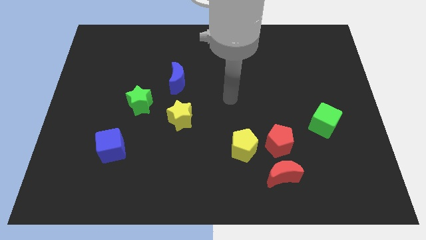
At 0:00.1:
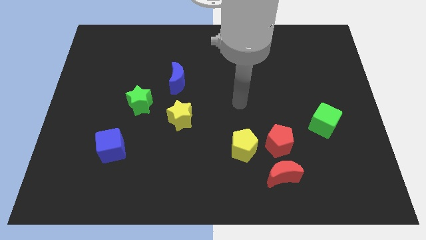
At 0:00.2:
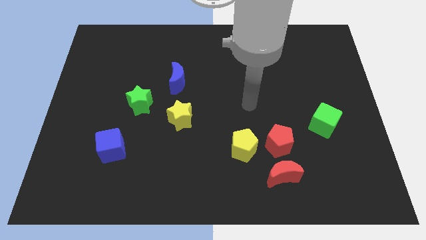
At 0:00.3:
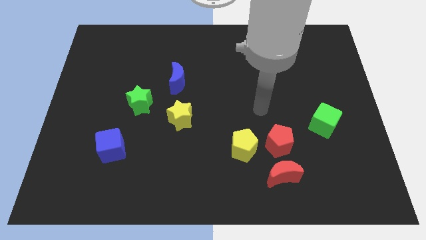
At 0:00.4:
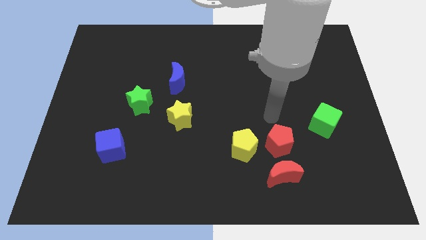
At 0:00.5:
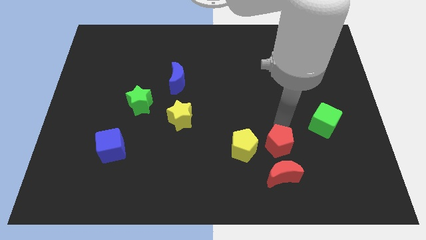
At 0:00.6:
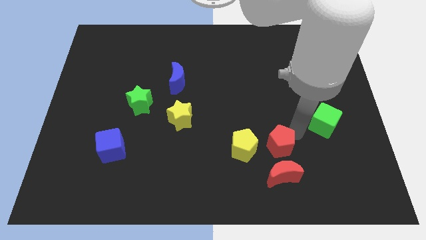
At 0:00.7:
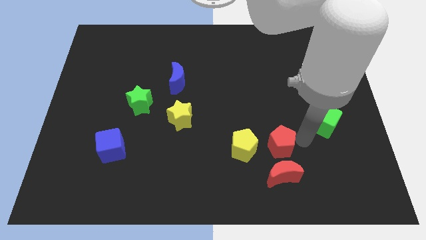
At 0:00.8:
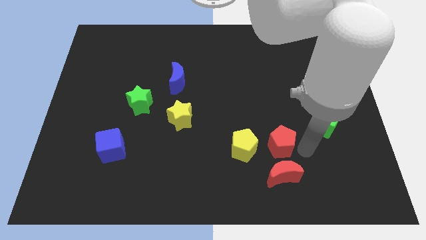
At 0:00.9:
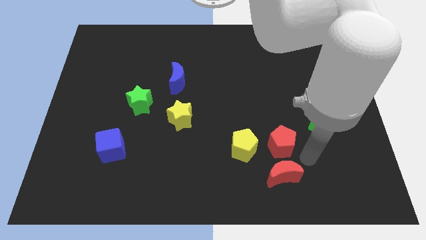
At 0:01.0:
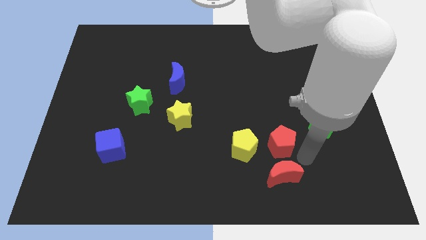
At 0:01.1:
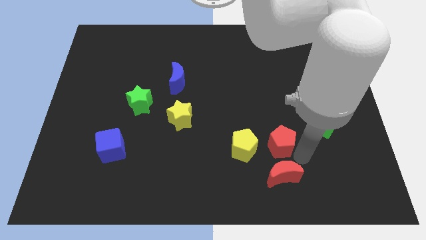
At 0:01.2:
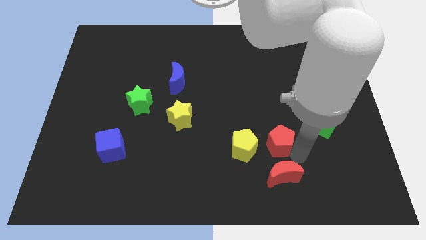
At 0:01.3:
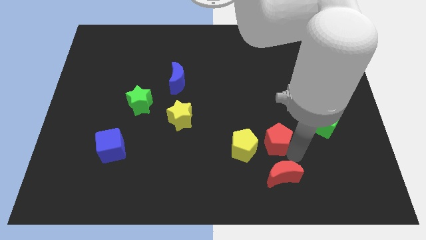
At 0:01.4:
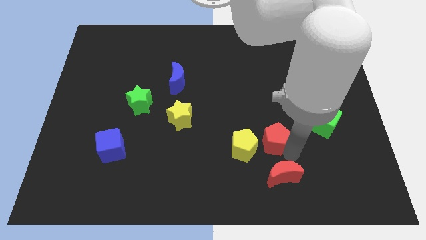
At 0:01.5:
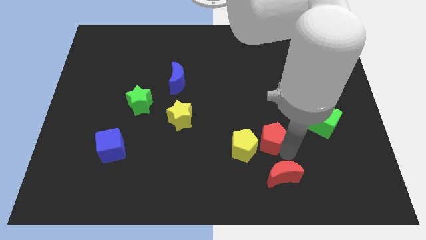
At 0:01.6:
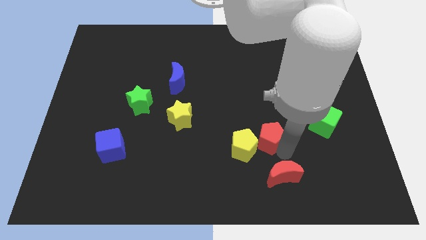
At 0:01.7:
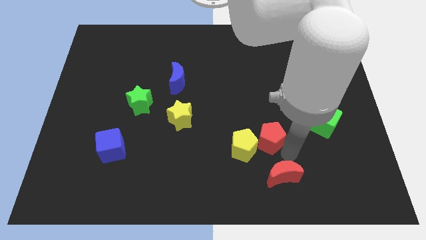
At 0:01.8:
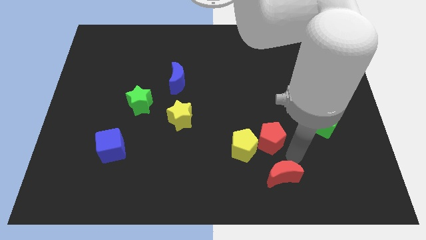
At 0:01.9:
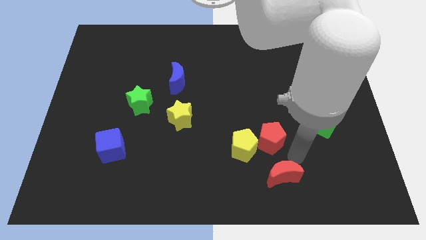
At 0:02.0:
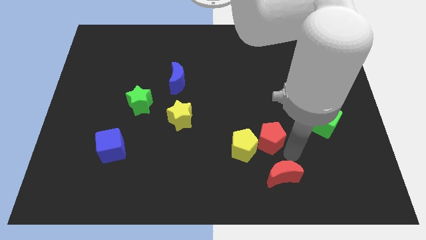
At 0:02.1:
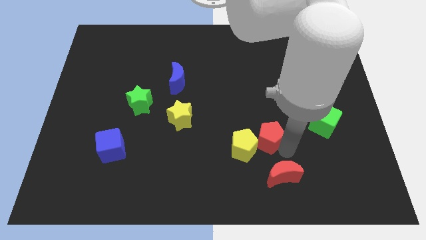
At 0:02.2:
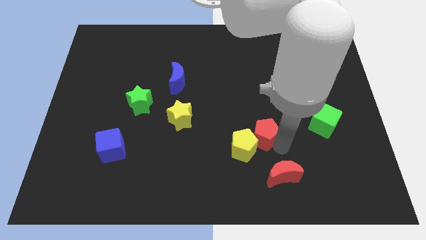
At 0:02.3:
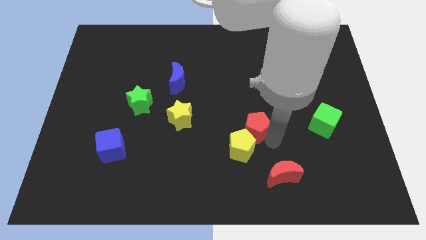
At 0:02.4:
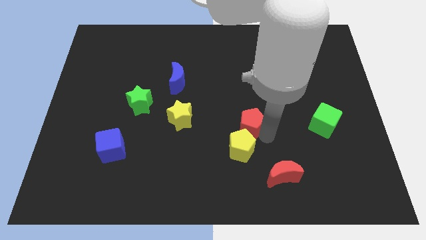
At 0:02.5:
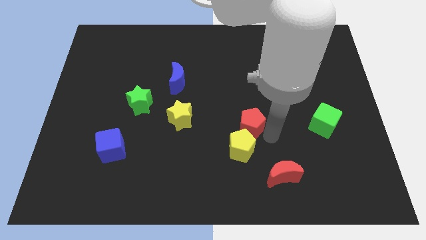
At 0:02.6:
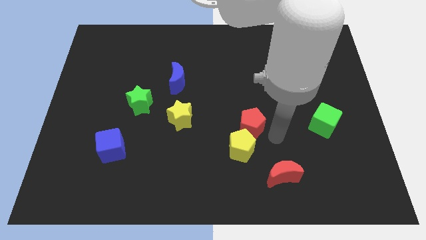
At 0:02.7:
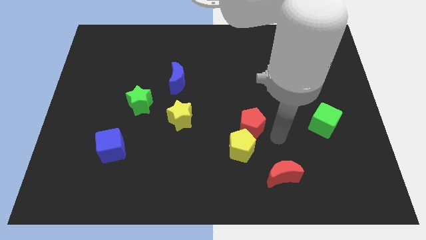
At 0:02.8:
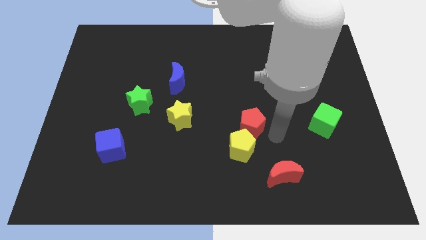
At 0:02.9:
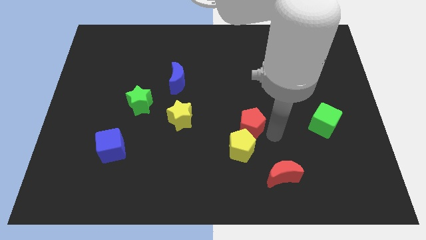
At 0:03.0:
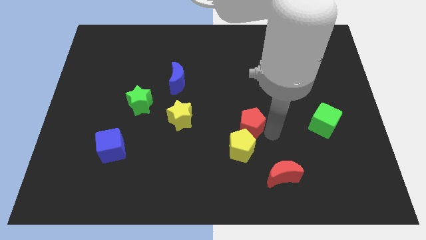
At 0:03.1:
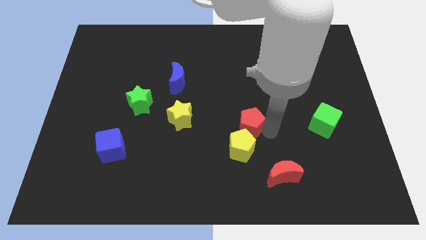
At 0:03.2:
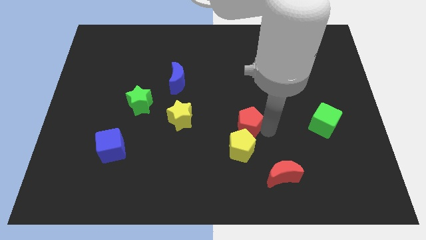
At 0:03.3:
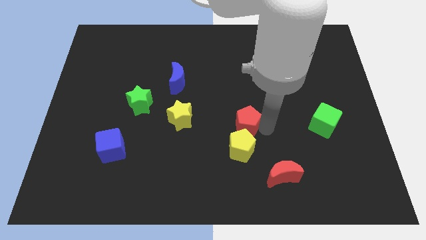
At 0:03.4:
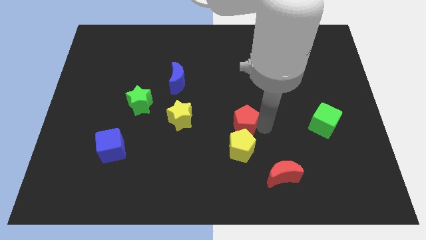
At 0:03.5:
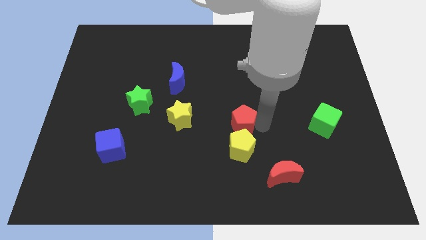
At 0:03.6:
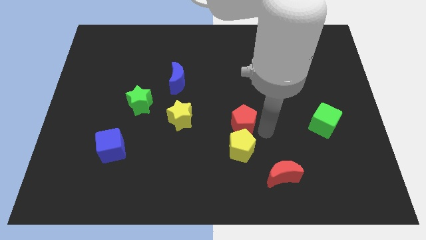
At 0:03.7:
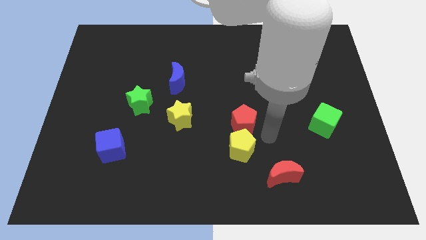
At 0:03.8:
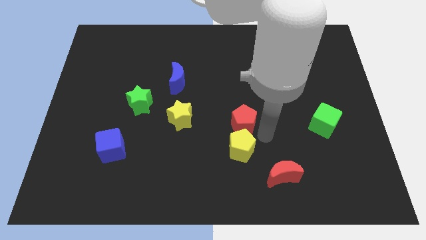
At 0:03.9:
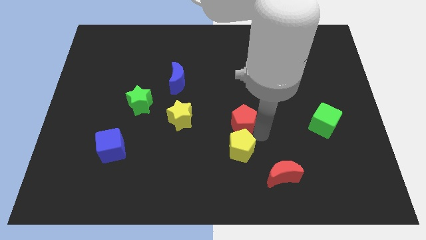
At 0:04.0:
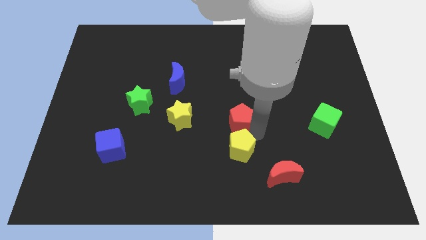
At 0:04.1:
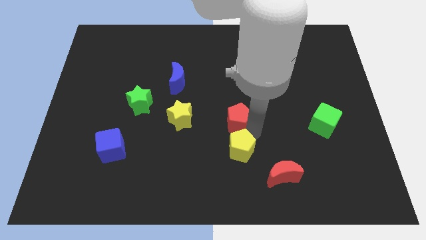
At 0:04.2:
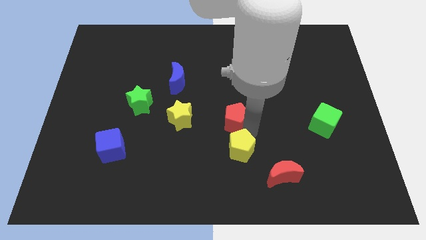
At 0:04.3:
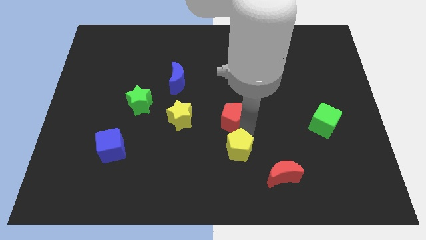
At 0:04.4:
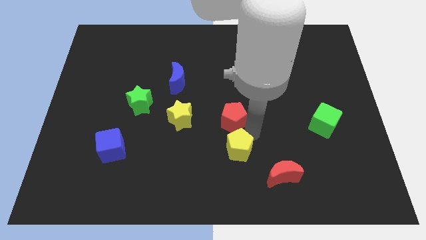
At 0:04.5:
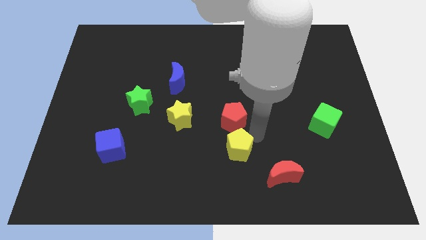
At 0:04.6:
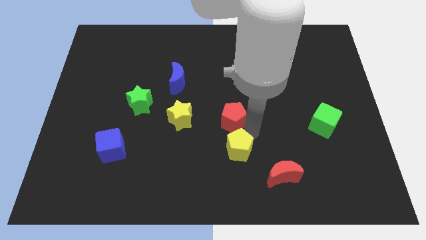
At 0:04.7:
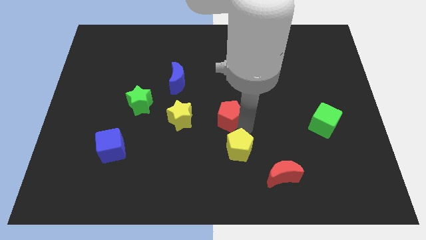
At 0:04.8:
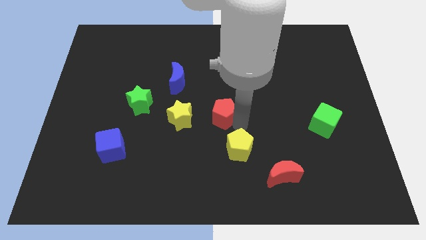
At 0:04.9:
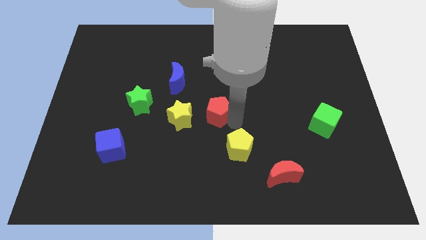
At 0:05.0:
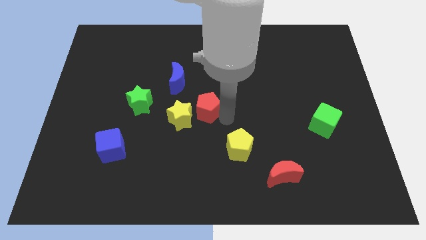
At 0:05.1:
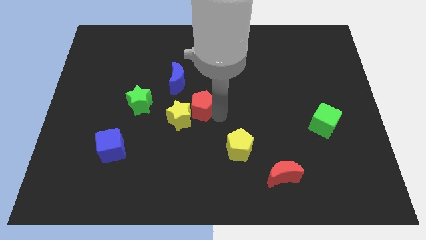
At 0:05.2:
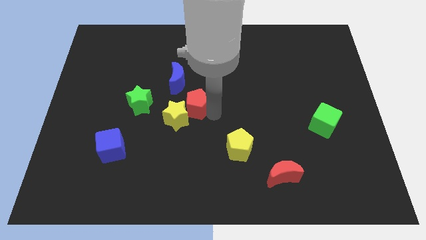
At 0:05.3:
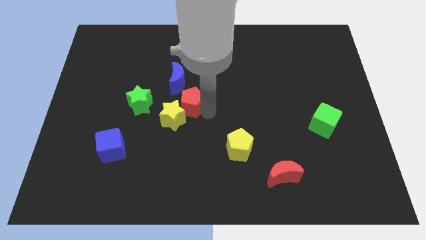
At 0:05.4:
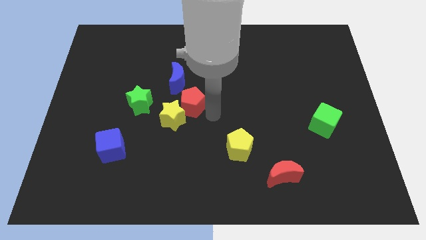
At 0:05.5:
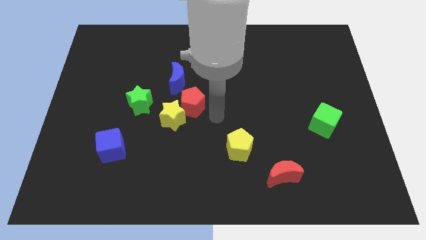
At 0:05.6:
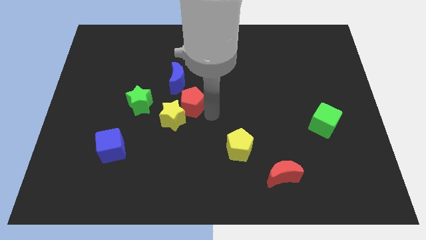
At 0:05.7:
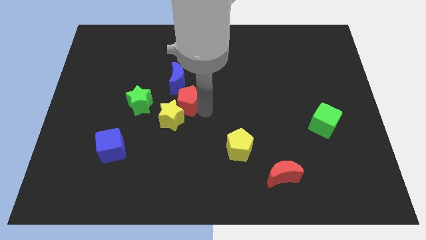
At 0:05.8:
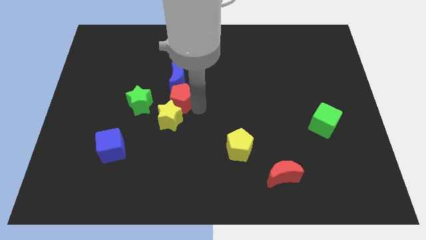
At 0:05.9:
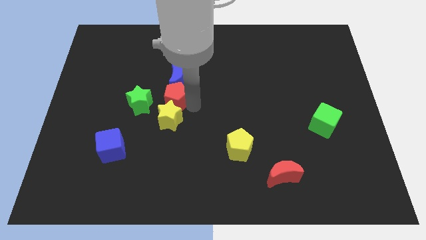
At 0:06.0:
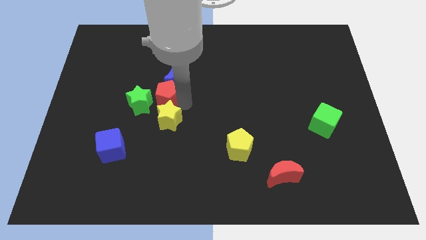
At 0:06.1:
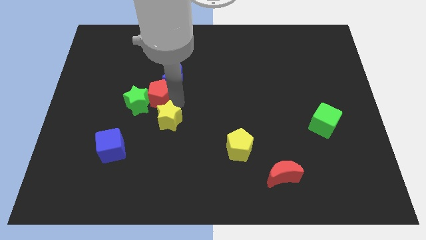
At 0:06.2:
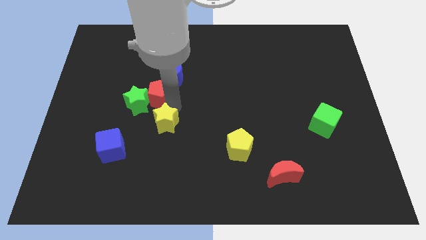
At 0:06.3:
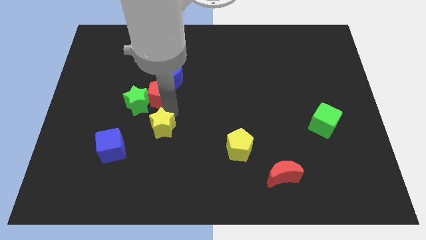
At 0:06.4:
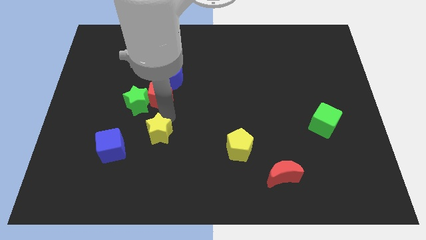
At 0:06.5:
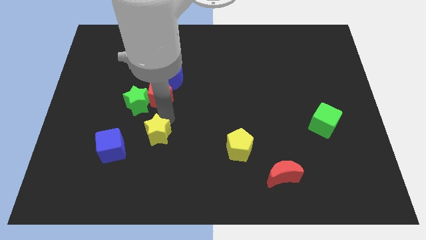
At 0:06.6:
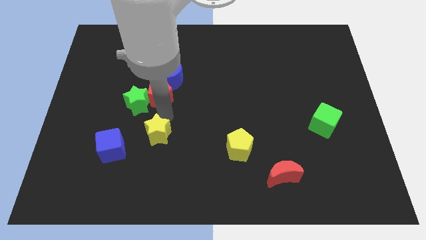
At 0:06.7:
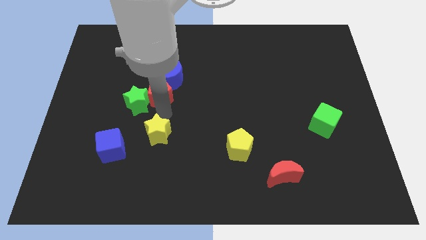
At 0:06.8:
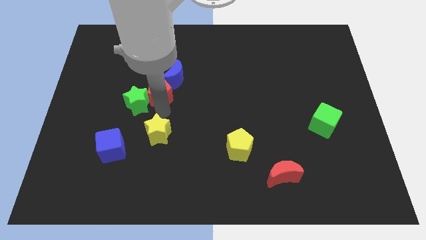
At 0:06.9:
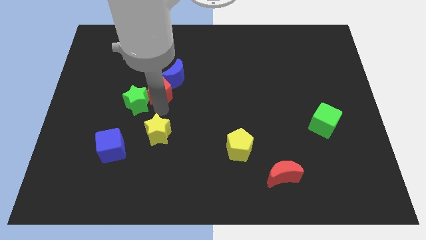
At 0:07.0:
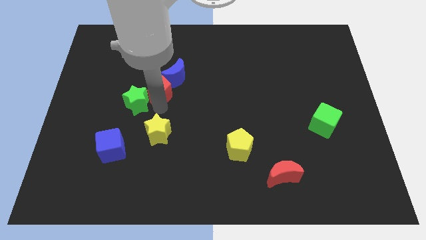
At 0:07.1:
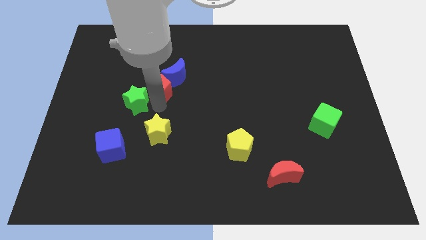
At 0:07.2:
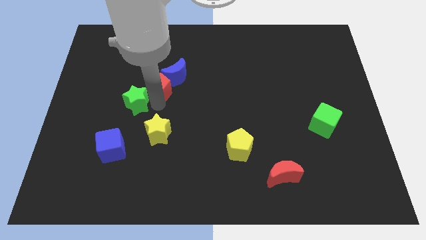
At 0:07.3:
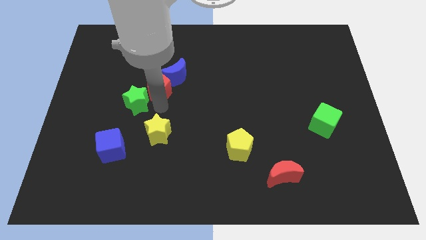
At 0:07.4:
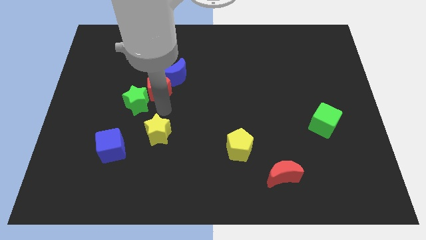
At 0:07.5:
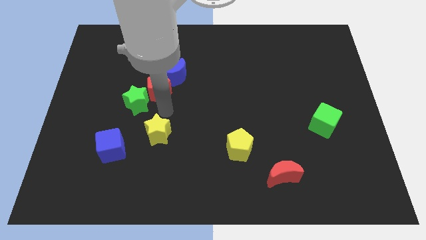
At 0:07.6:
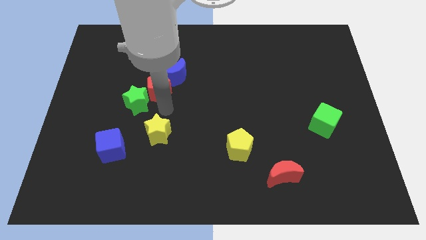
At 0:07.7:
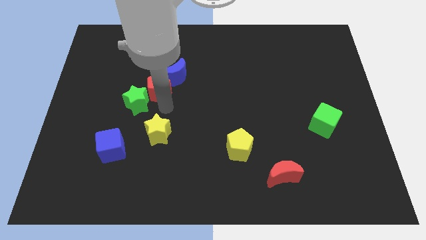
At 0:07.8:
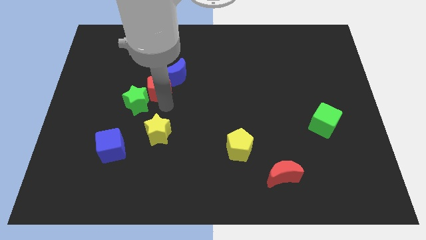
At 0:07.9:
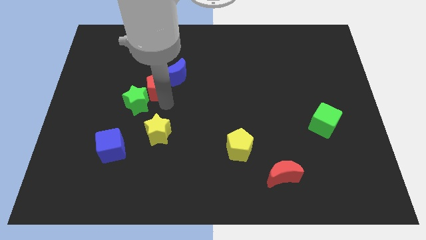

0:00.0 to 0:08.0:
push the red pentagon above the green star
